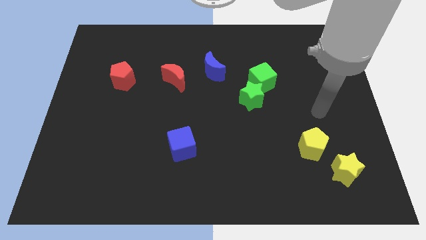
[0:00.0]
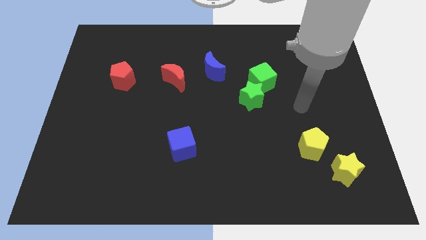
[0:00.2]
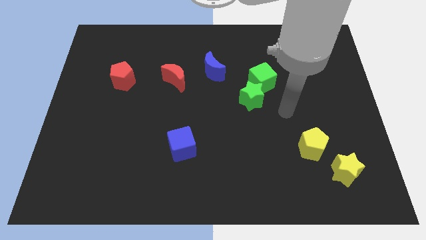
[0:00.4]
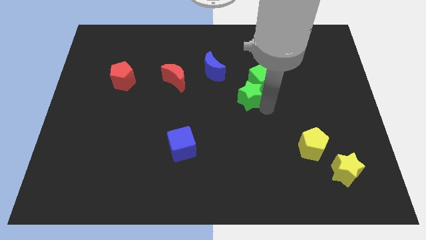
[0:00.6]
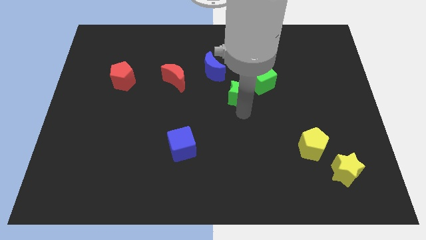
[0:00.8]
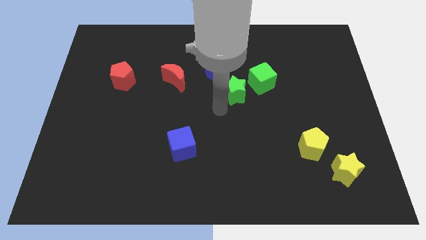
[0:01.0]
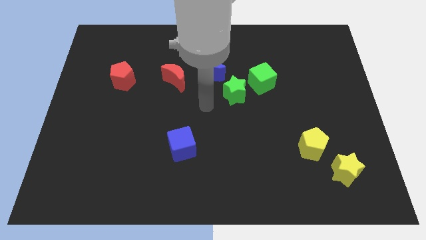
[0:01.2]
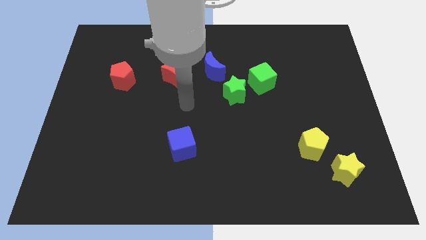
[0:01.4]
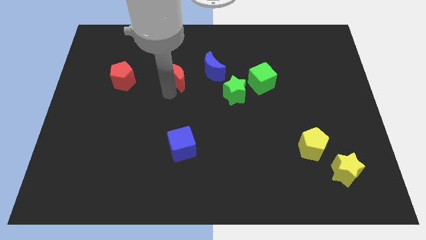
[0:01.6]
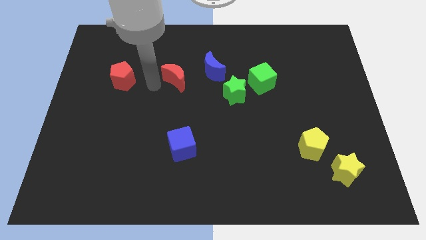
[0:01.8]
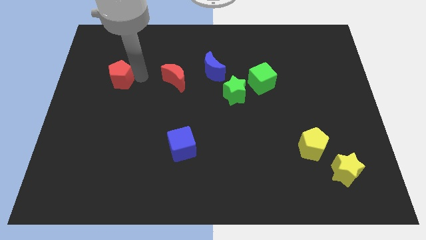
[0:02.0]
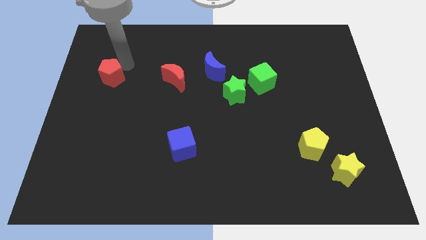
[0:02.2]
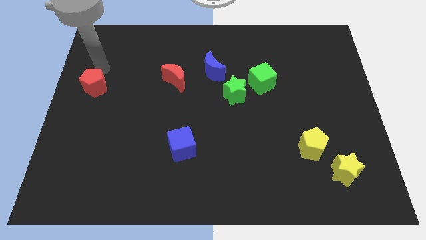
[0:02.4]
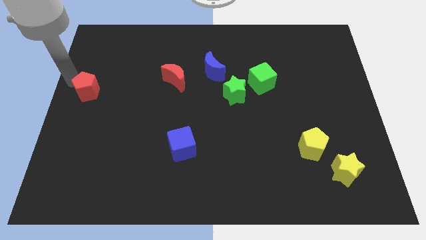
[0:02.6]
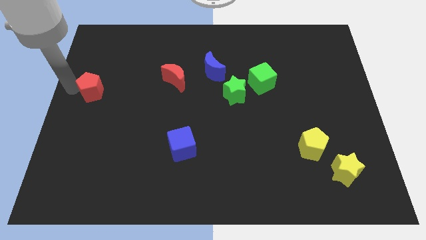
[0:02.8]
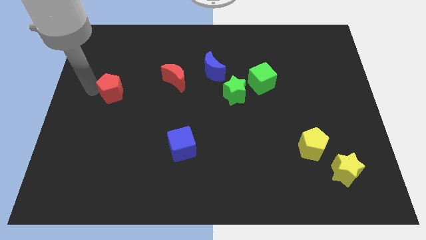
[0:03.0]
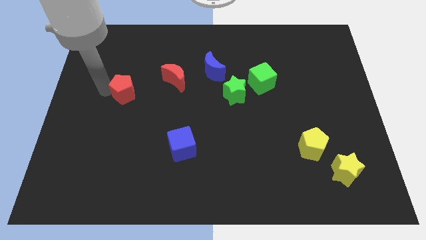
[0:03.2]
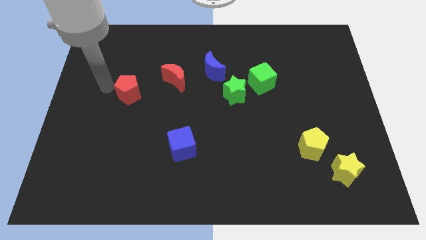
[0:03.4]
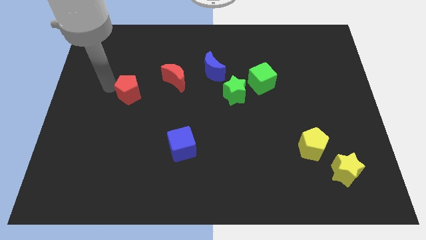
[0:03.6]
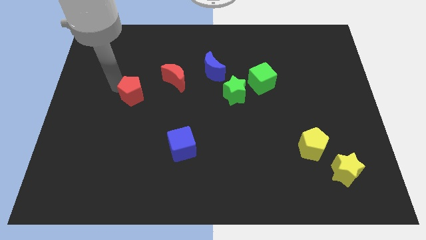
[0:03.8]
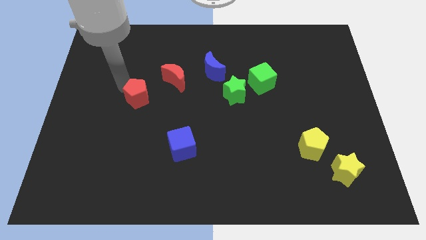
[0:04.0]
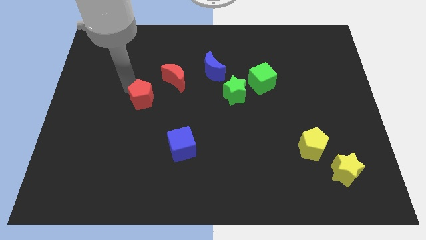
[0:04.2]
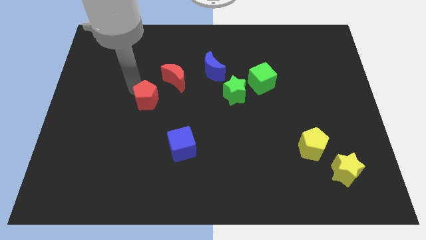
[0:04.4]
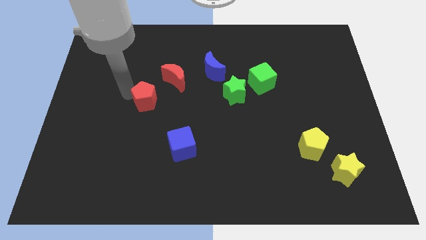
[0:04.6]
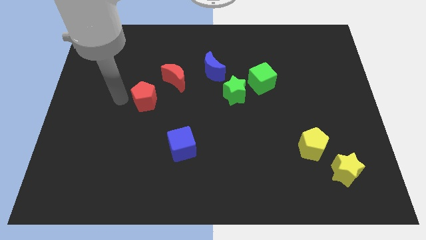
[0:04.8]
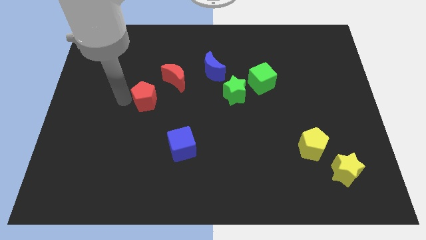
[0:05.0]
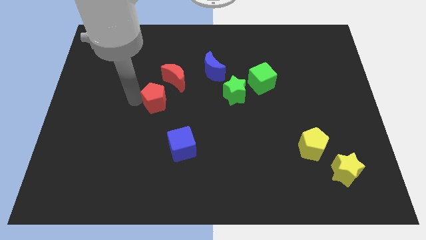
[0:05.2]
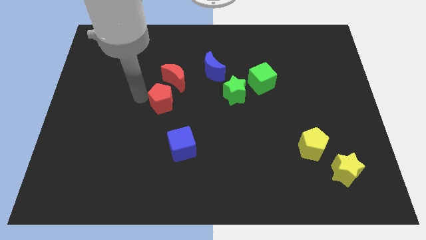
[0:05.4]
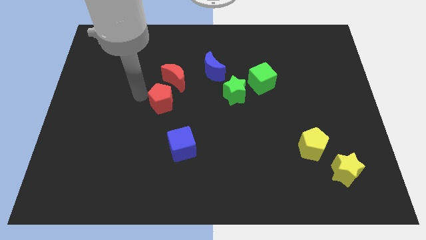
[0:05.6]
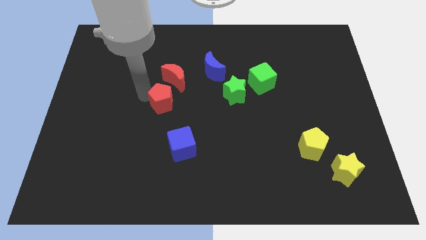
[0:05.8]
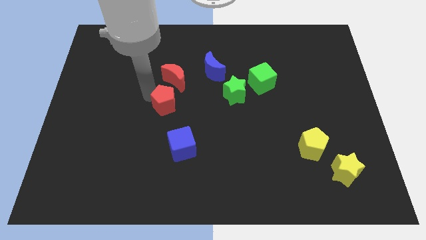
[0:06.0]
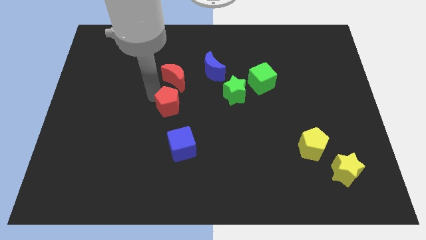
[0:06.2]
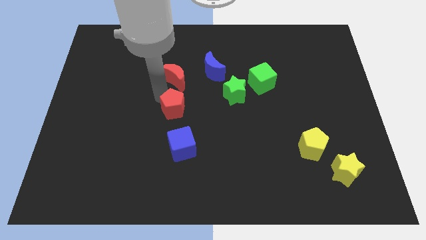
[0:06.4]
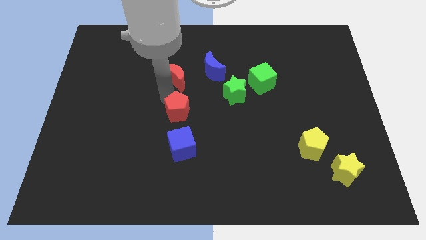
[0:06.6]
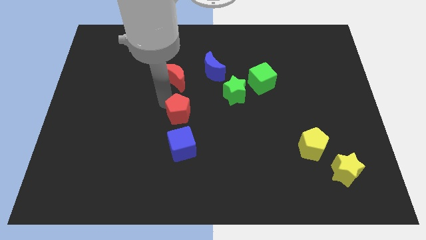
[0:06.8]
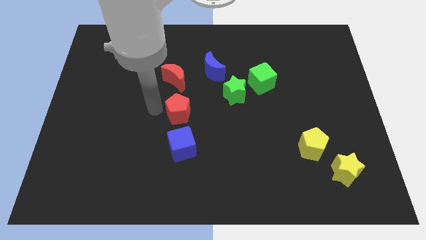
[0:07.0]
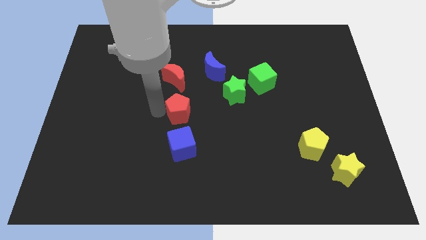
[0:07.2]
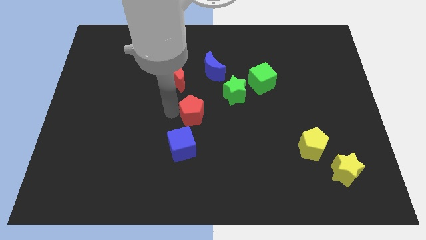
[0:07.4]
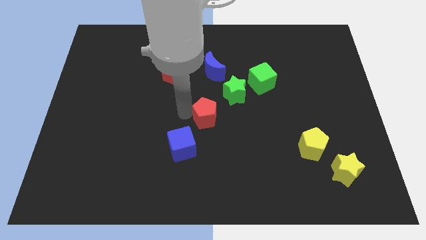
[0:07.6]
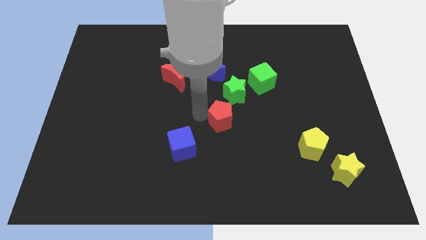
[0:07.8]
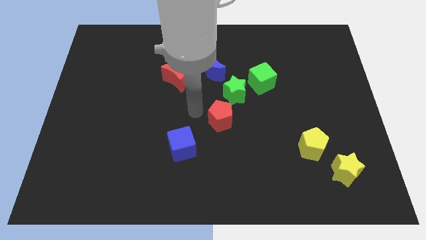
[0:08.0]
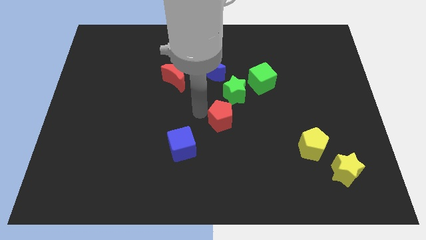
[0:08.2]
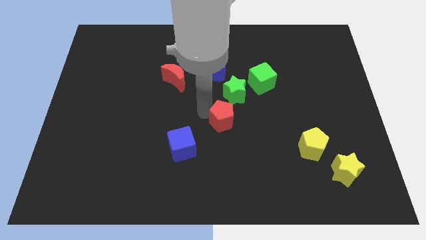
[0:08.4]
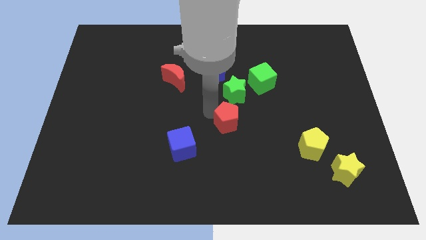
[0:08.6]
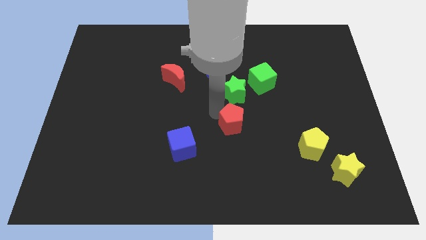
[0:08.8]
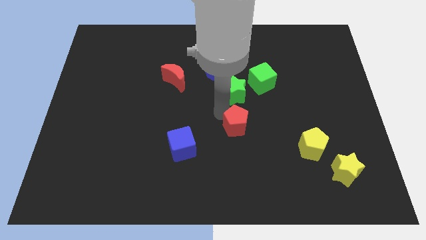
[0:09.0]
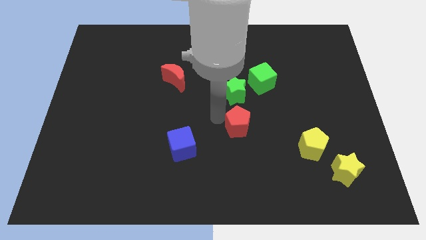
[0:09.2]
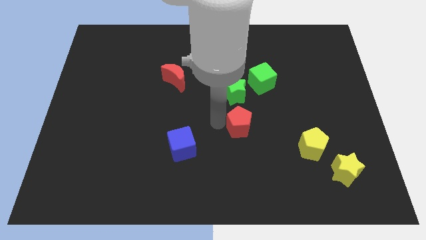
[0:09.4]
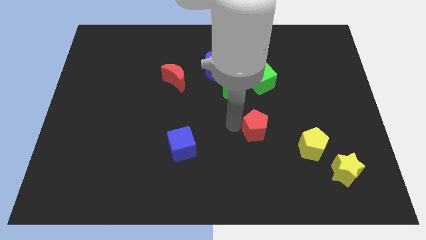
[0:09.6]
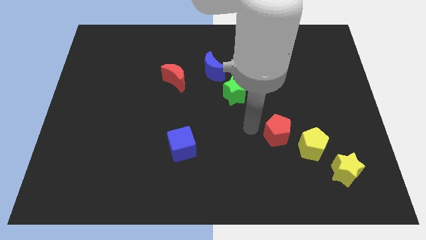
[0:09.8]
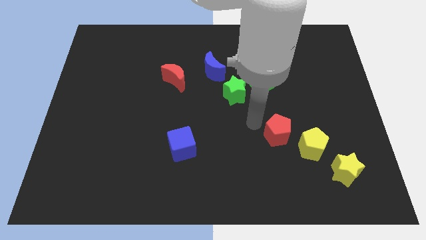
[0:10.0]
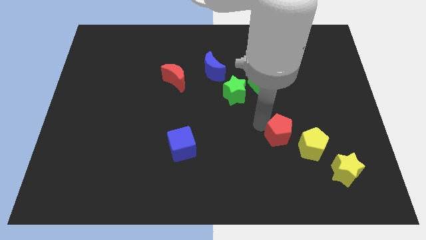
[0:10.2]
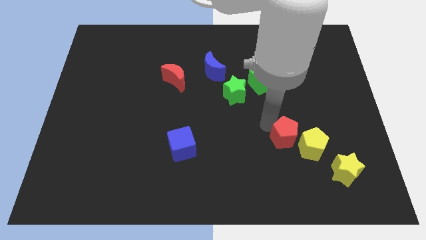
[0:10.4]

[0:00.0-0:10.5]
put the red pentagon close to the yellow pentagon

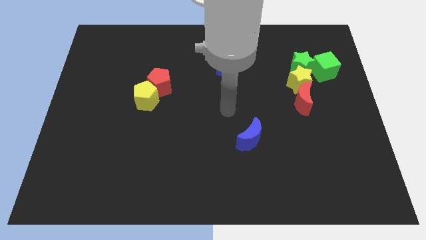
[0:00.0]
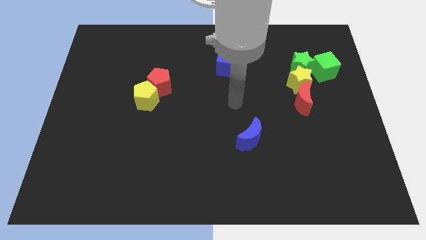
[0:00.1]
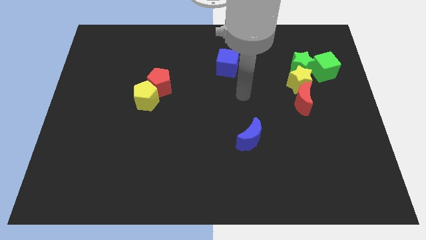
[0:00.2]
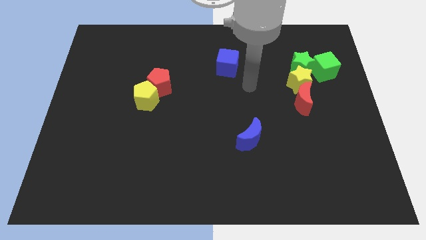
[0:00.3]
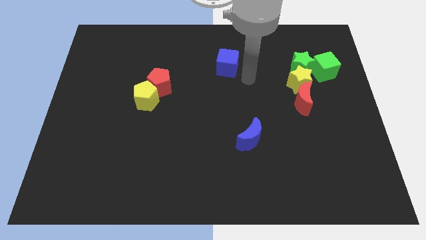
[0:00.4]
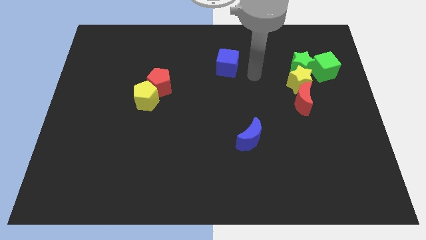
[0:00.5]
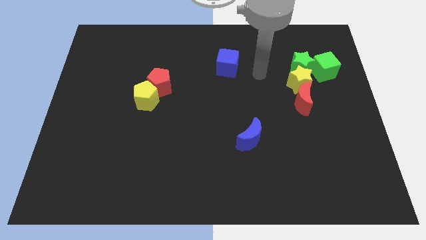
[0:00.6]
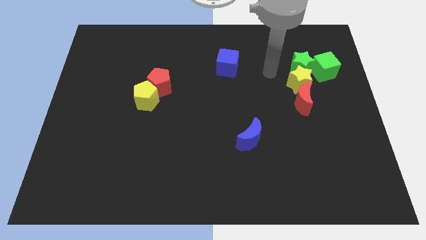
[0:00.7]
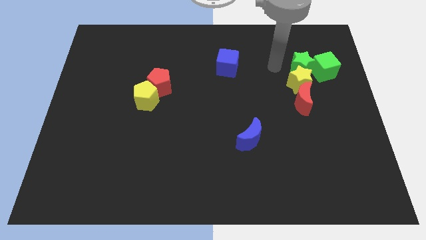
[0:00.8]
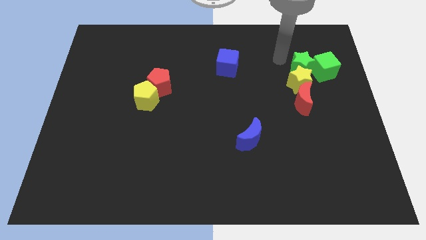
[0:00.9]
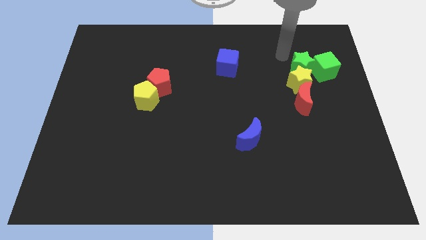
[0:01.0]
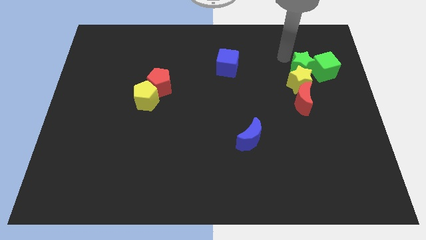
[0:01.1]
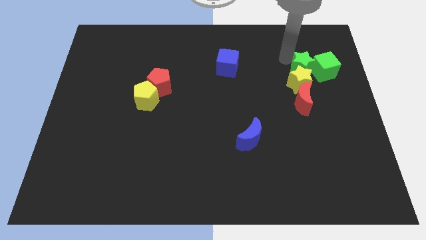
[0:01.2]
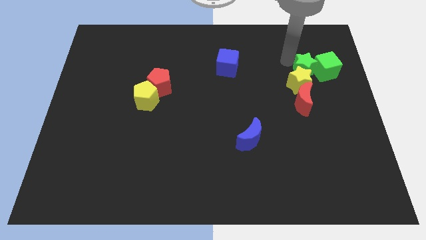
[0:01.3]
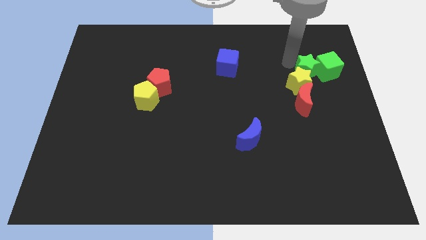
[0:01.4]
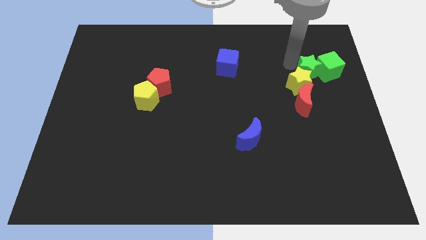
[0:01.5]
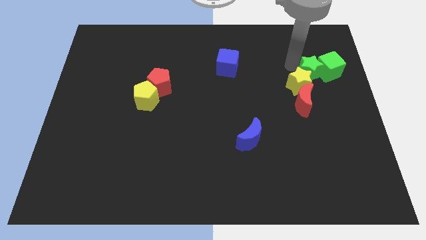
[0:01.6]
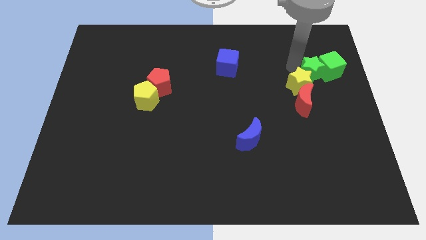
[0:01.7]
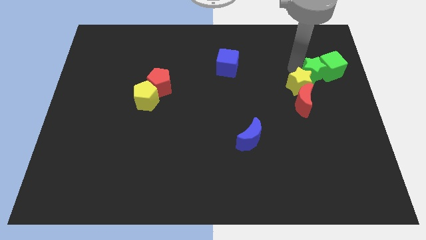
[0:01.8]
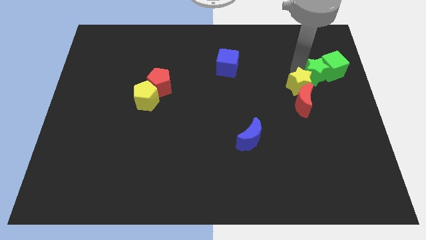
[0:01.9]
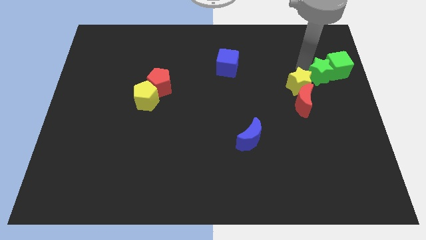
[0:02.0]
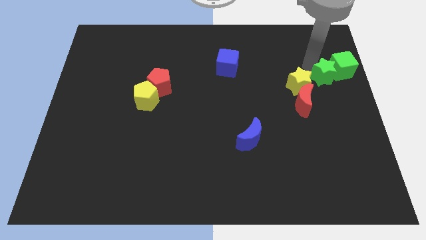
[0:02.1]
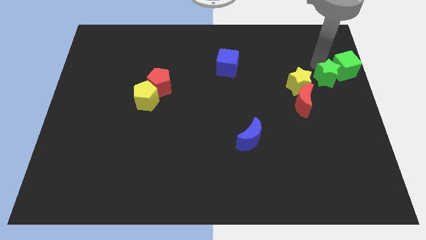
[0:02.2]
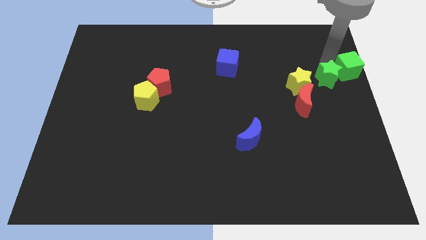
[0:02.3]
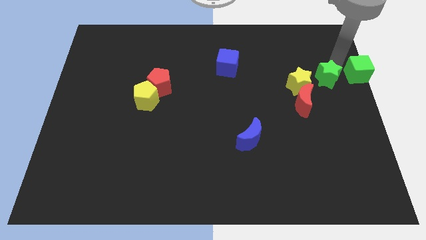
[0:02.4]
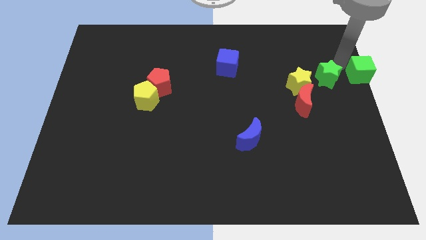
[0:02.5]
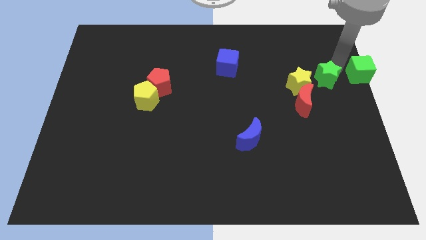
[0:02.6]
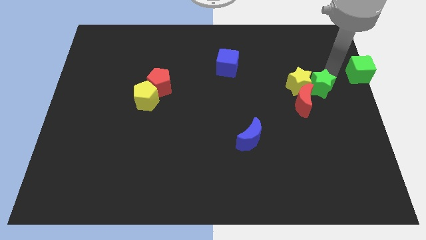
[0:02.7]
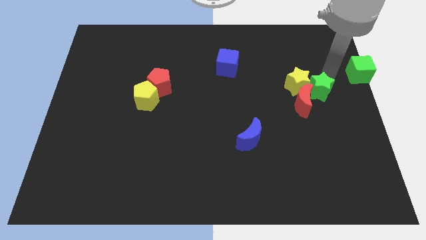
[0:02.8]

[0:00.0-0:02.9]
slide the green star to the red moon
